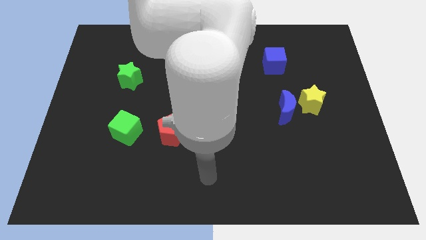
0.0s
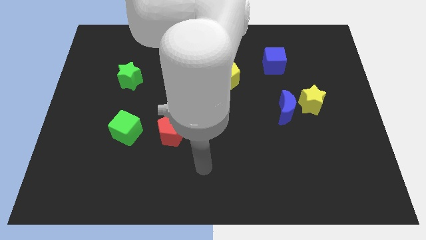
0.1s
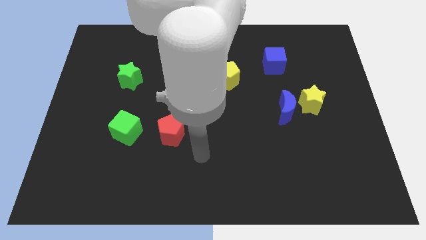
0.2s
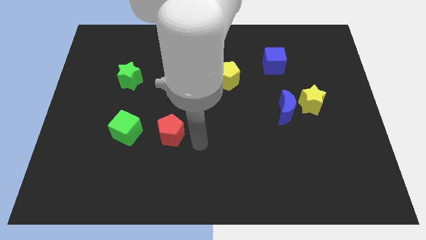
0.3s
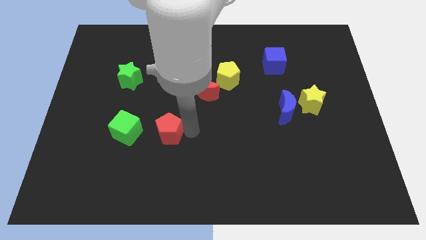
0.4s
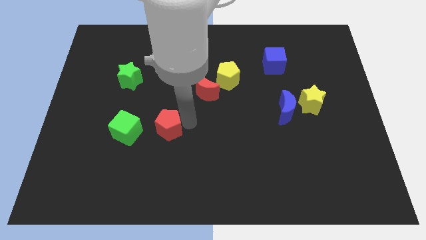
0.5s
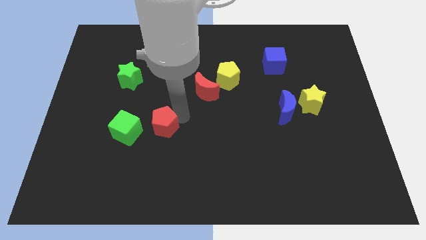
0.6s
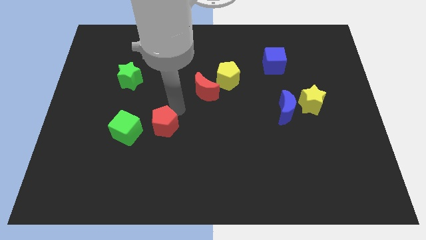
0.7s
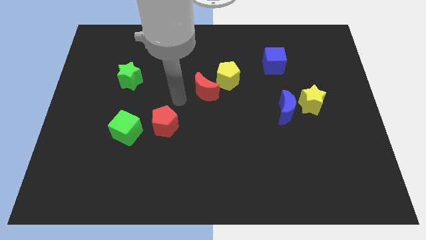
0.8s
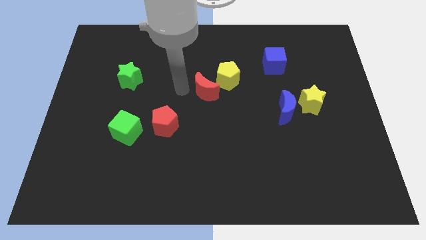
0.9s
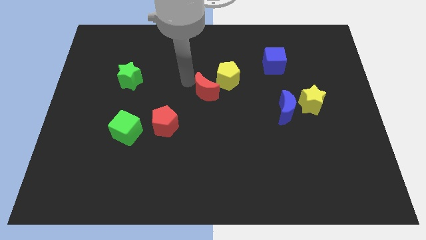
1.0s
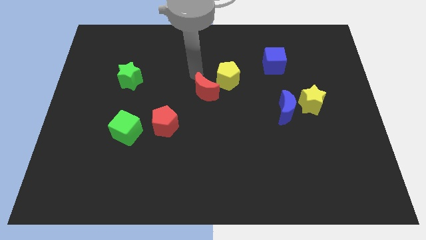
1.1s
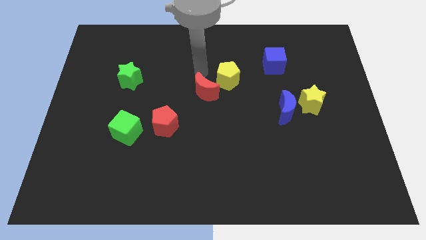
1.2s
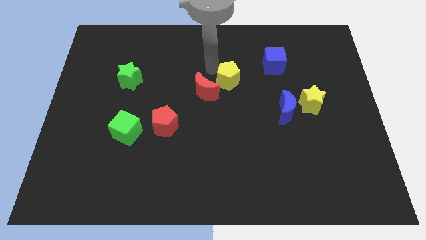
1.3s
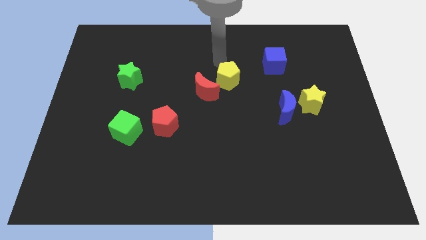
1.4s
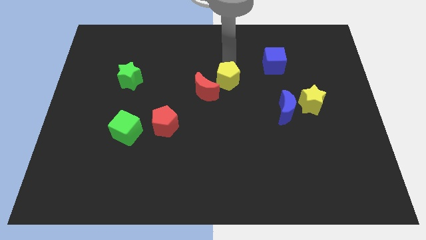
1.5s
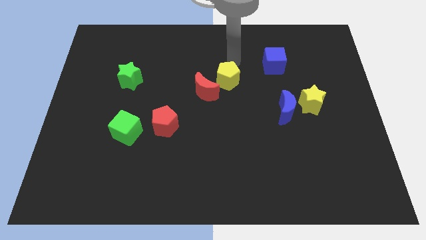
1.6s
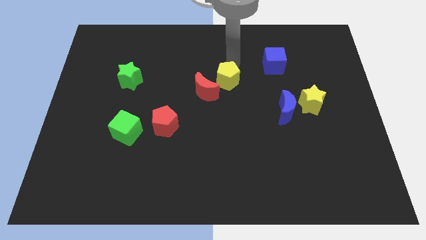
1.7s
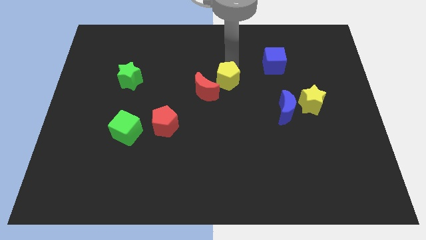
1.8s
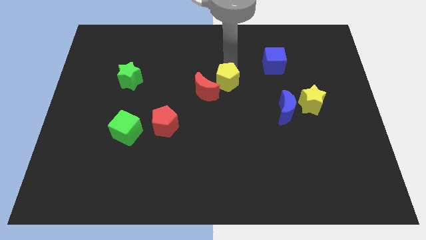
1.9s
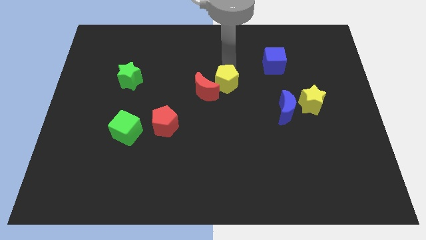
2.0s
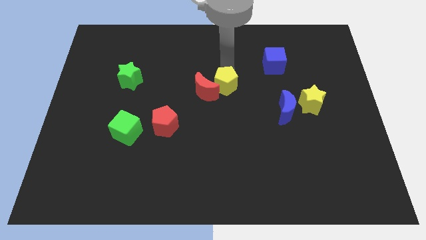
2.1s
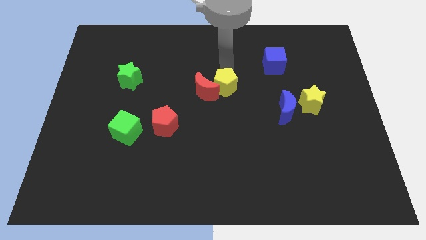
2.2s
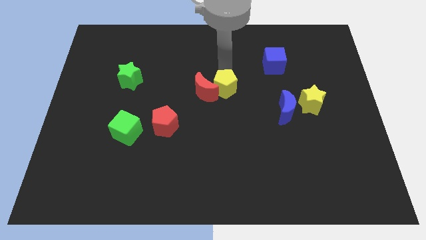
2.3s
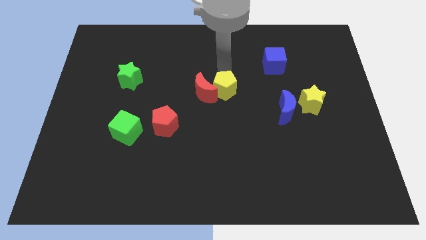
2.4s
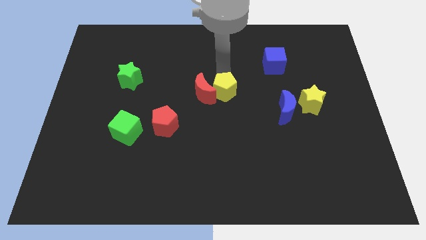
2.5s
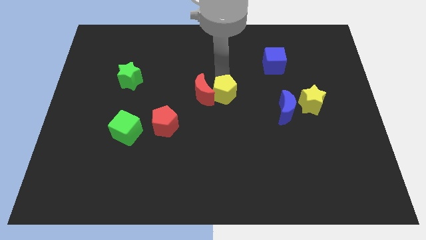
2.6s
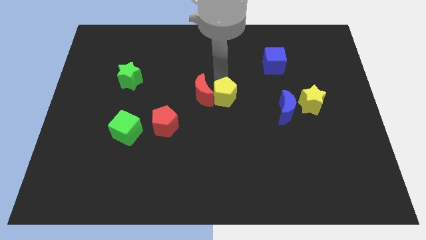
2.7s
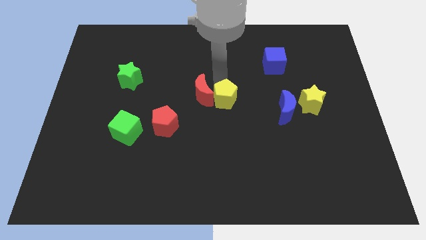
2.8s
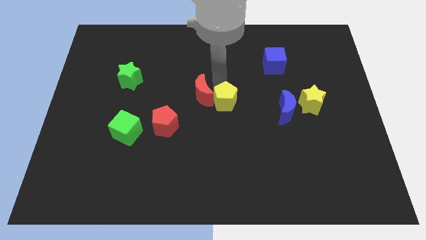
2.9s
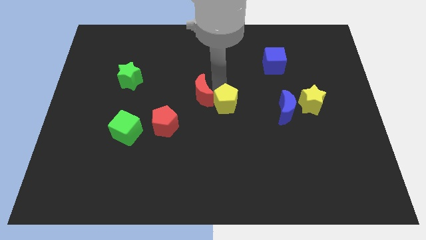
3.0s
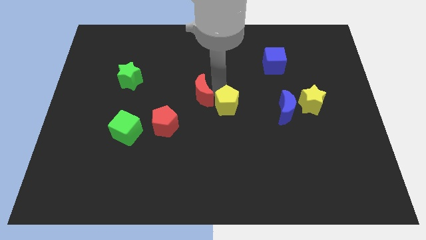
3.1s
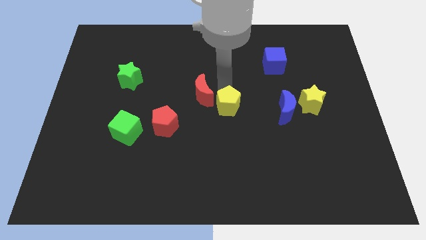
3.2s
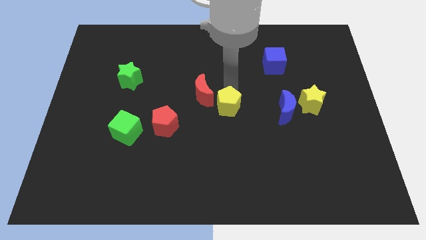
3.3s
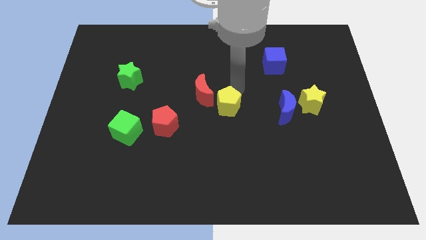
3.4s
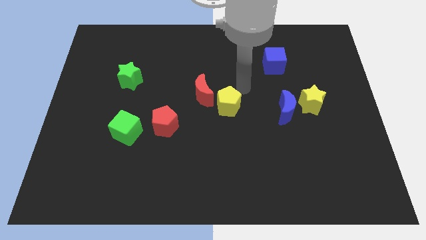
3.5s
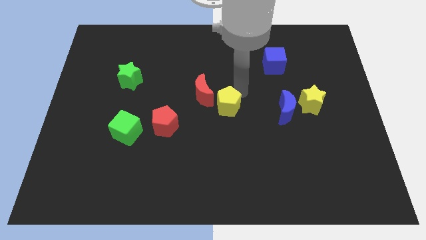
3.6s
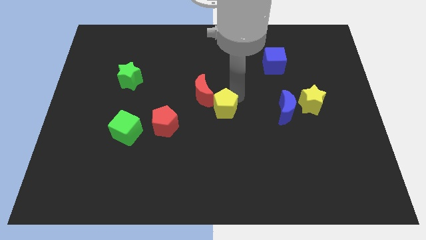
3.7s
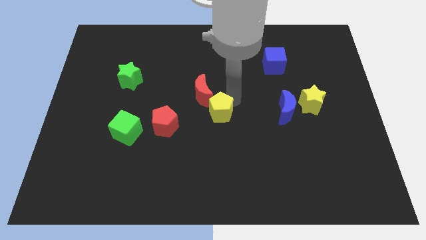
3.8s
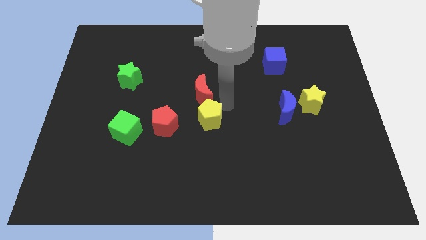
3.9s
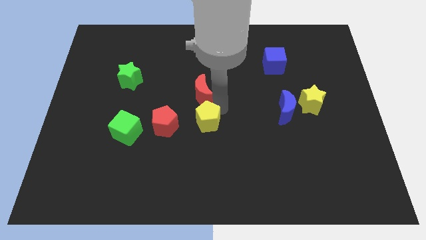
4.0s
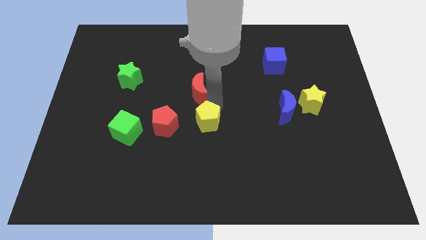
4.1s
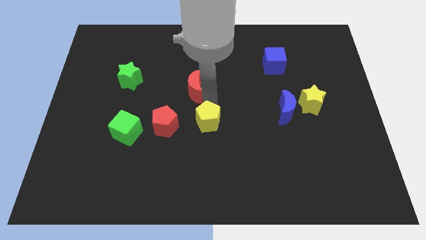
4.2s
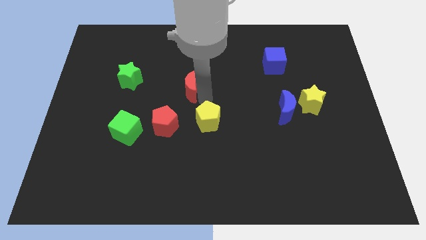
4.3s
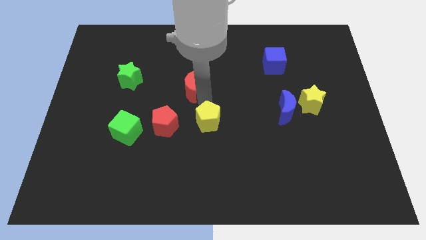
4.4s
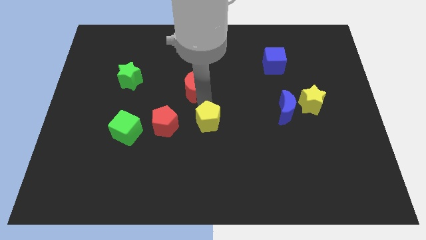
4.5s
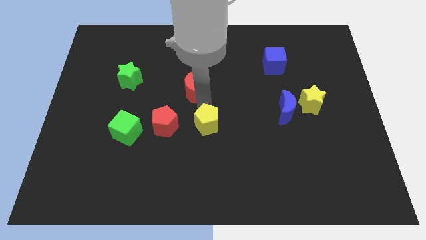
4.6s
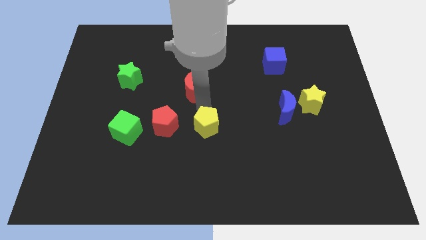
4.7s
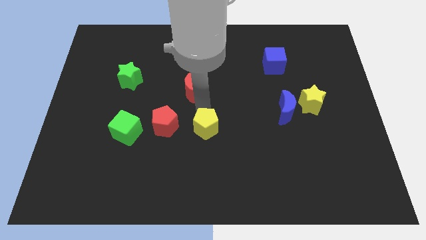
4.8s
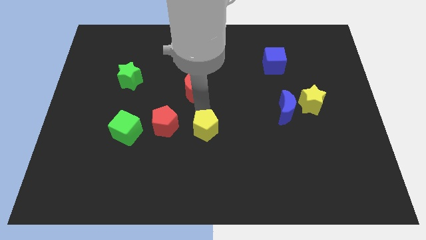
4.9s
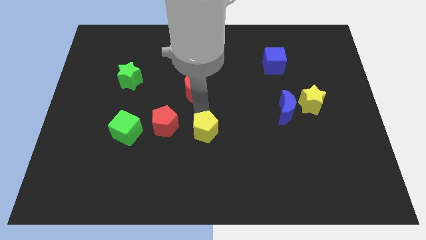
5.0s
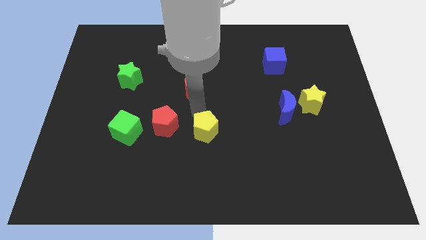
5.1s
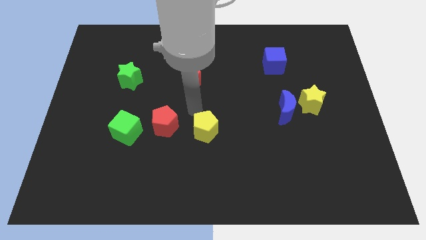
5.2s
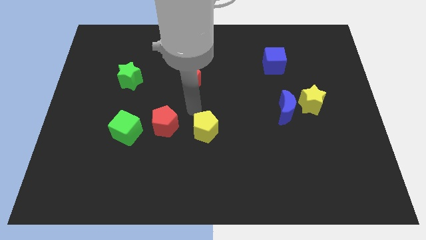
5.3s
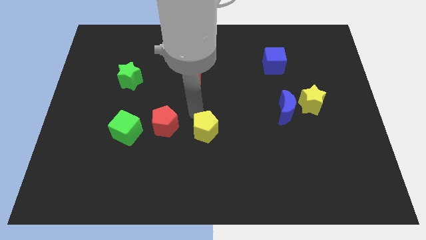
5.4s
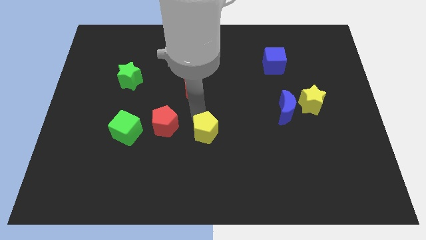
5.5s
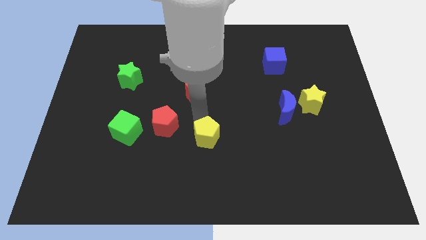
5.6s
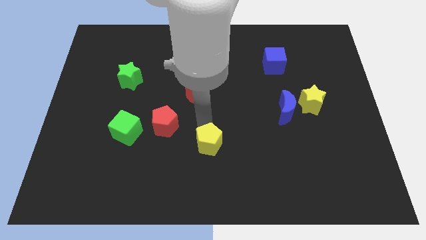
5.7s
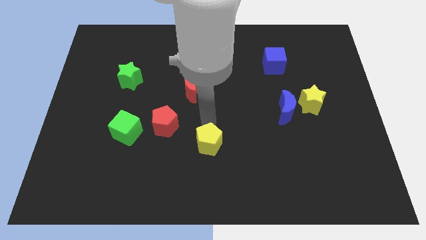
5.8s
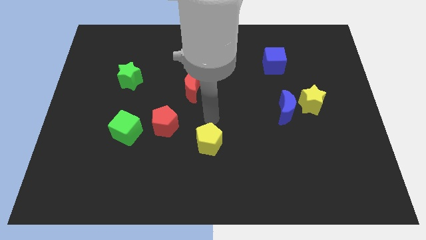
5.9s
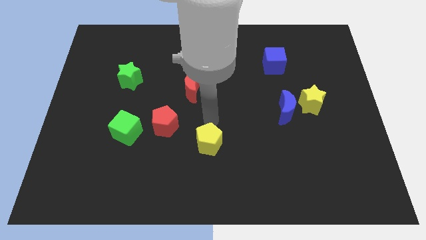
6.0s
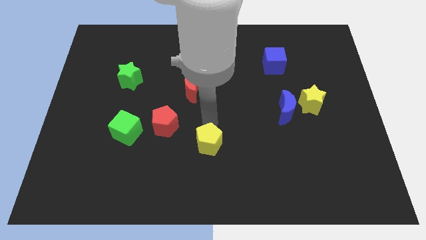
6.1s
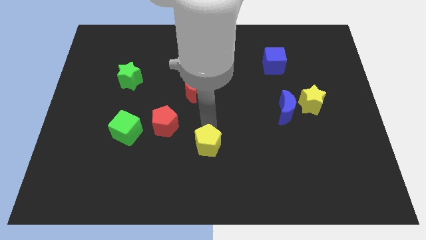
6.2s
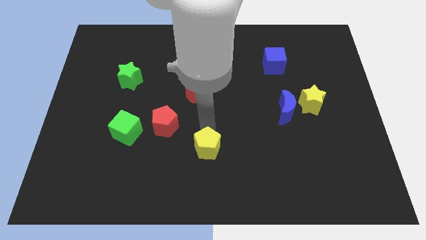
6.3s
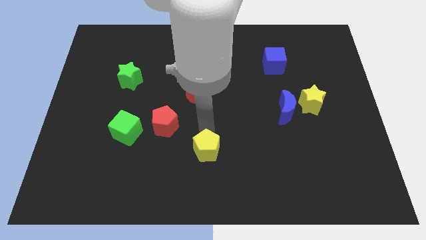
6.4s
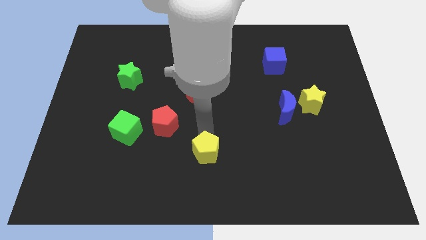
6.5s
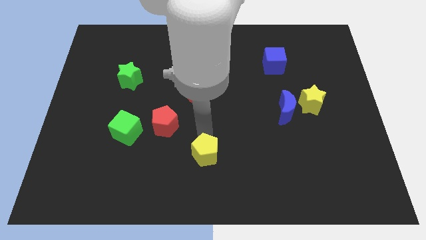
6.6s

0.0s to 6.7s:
slide the yellow pentagon to the bottom

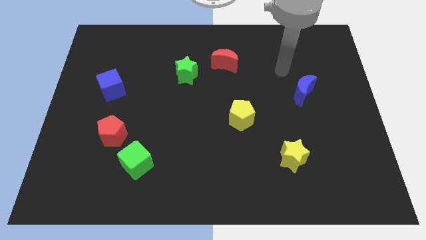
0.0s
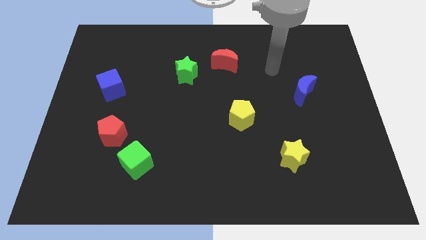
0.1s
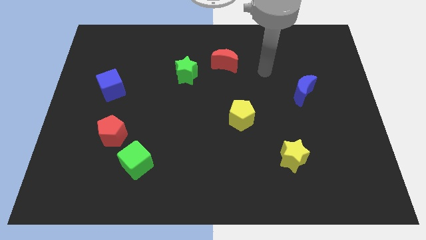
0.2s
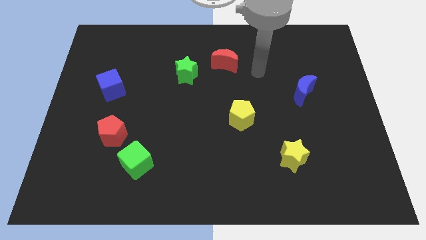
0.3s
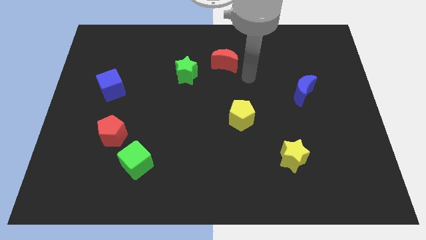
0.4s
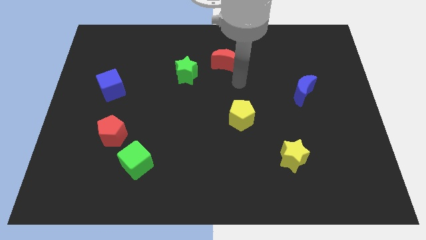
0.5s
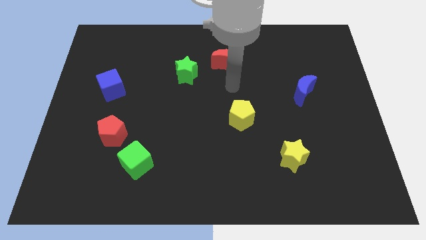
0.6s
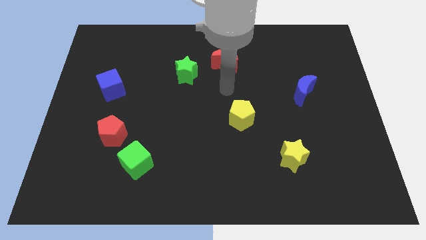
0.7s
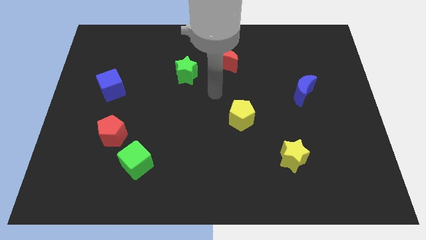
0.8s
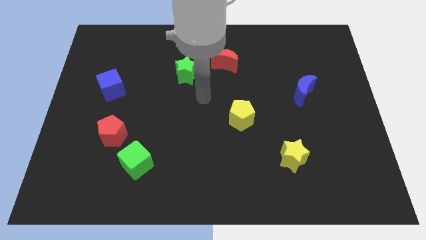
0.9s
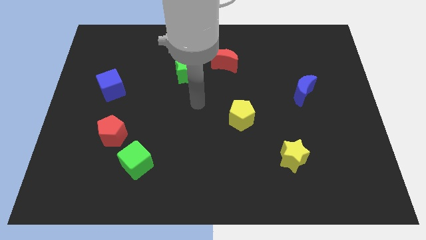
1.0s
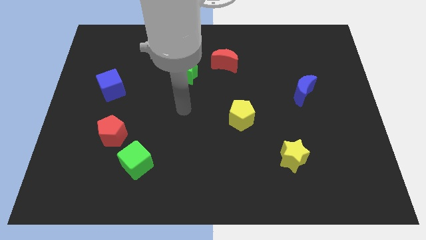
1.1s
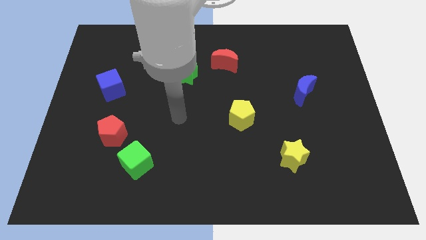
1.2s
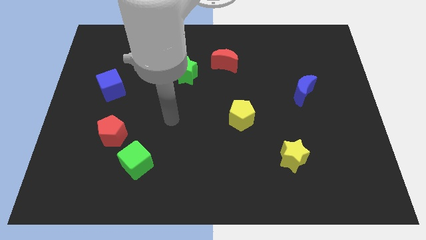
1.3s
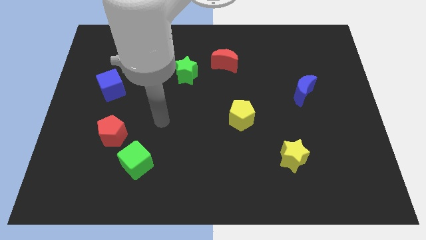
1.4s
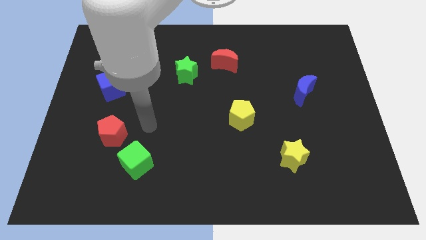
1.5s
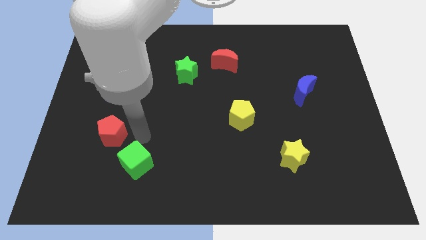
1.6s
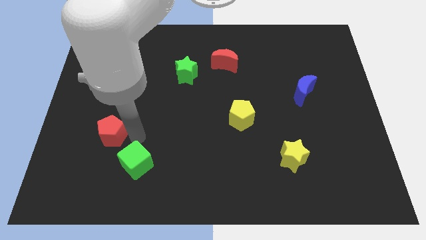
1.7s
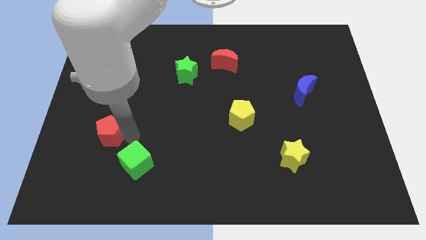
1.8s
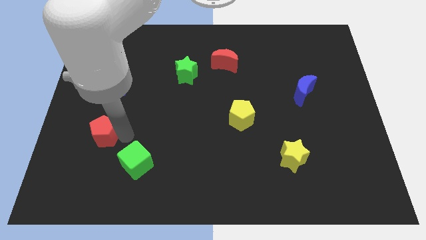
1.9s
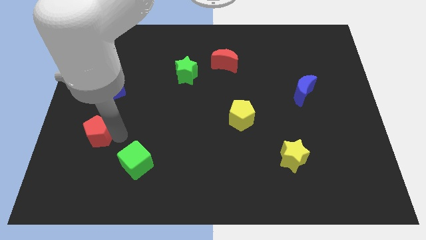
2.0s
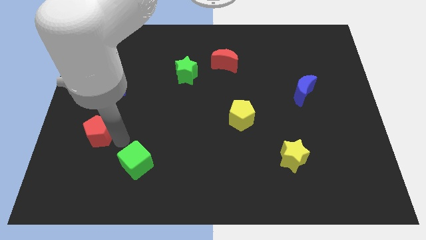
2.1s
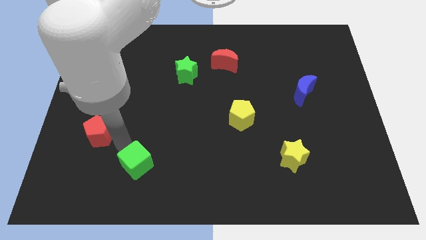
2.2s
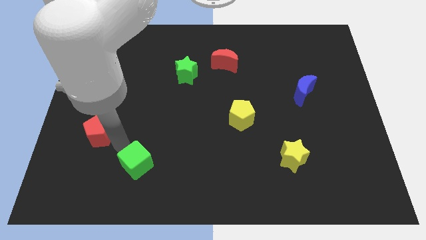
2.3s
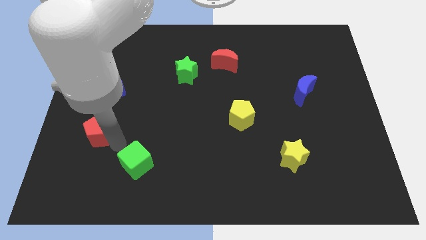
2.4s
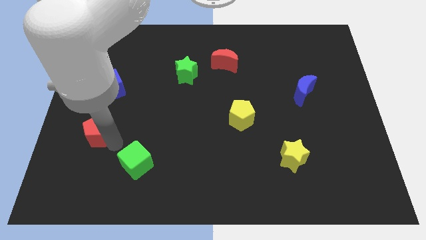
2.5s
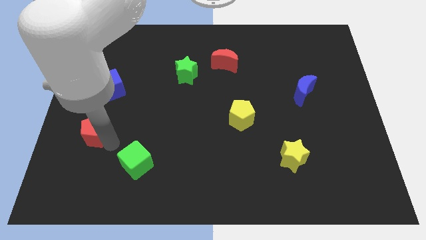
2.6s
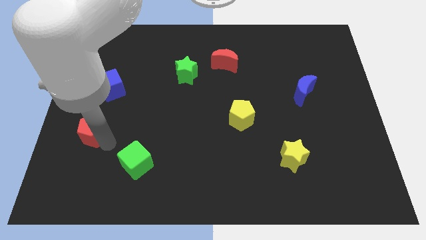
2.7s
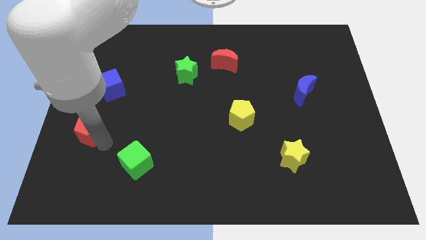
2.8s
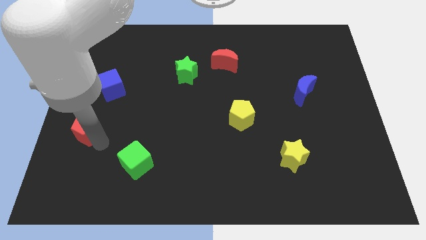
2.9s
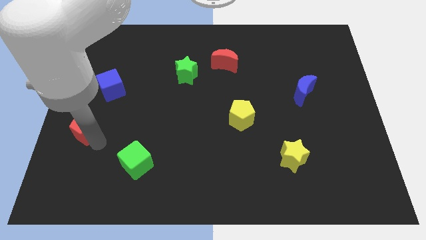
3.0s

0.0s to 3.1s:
move the red pentagon to the center left
